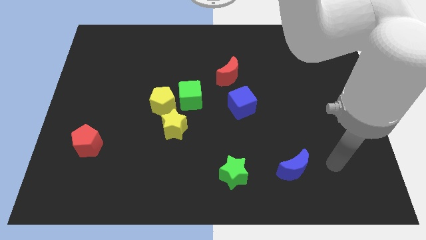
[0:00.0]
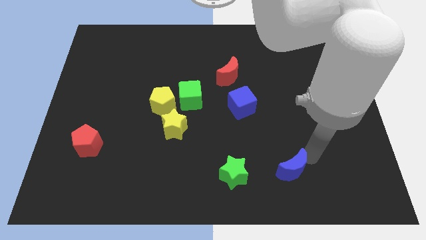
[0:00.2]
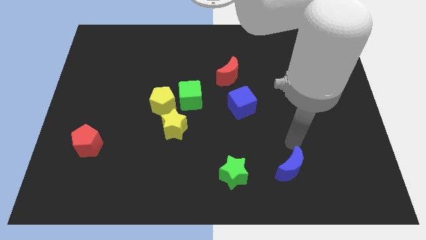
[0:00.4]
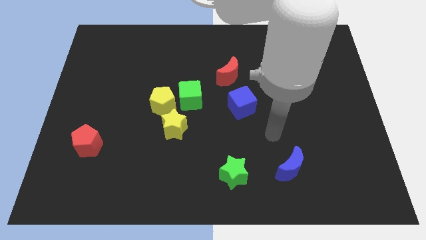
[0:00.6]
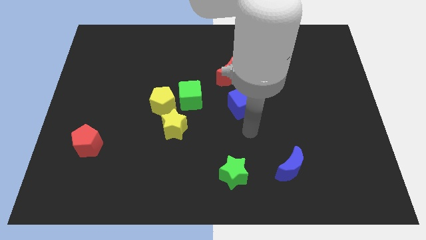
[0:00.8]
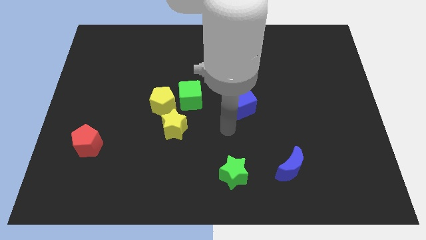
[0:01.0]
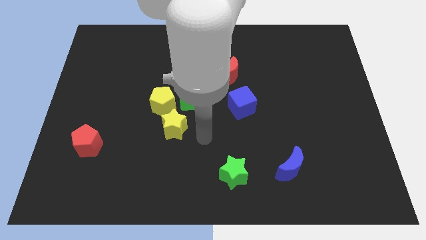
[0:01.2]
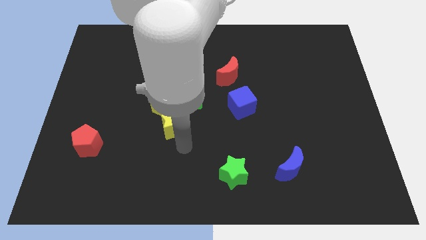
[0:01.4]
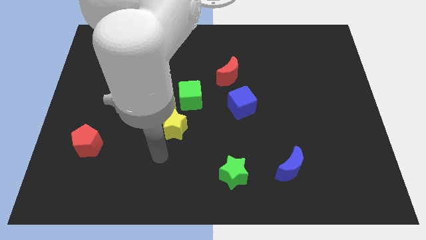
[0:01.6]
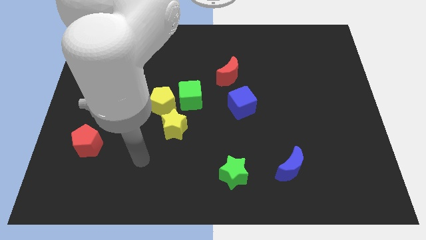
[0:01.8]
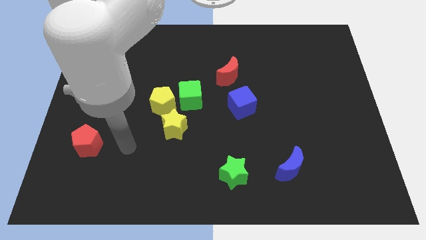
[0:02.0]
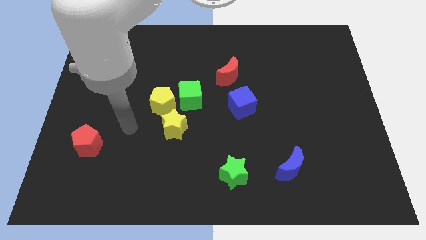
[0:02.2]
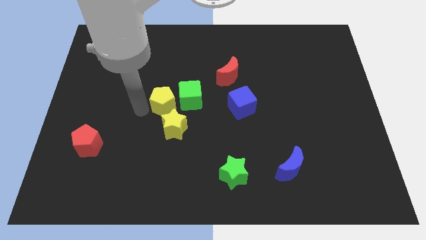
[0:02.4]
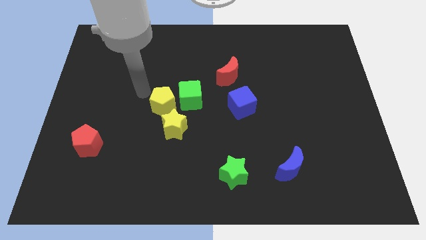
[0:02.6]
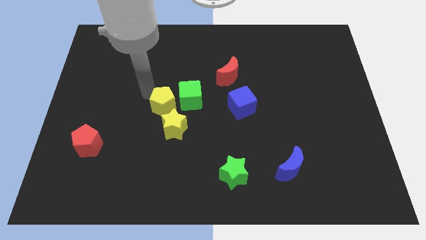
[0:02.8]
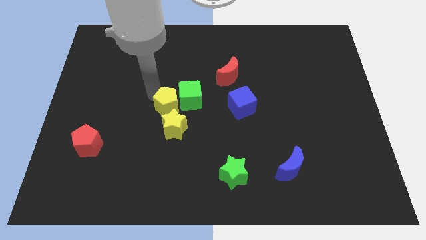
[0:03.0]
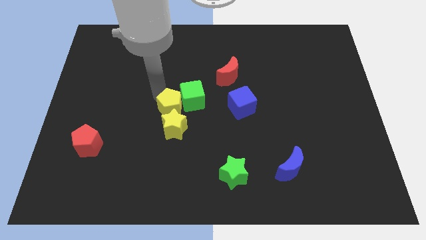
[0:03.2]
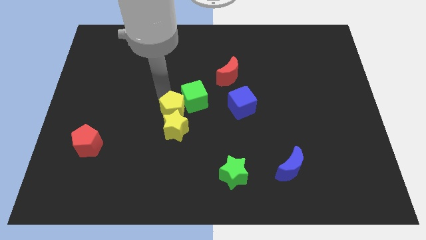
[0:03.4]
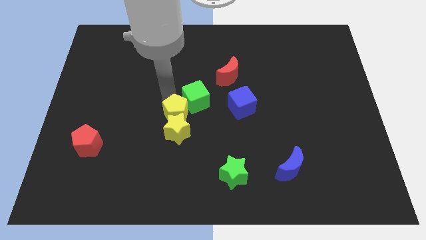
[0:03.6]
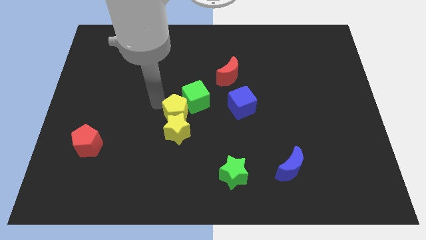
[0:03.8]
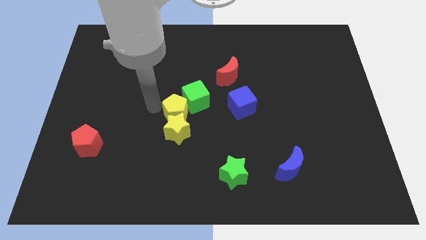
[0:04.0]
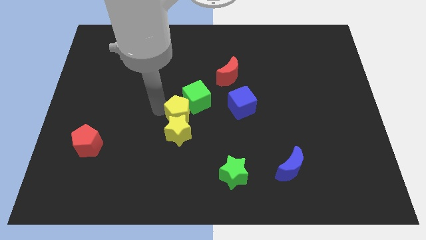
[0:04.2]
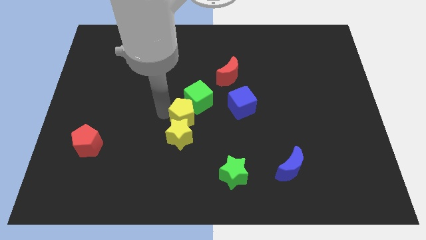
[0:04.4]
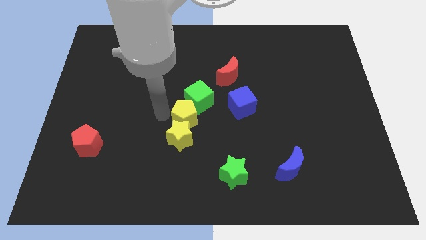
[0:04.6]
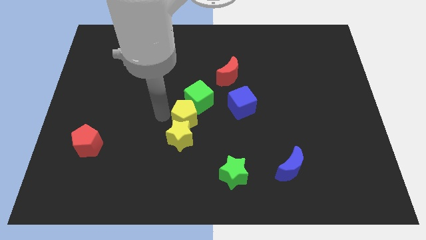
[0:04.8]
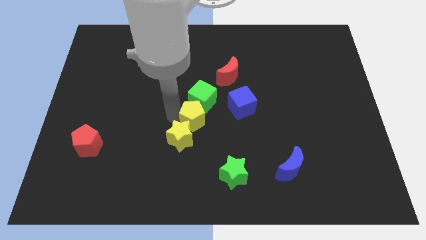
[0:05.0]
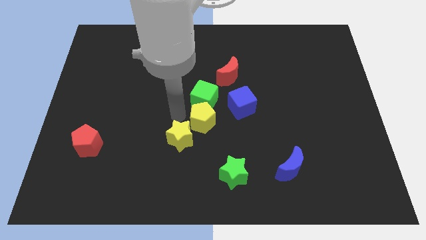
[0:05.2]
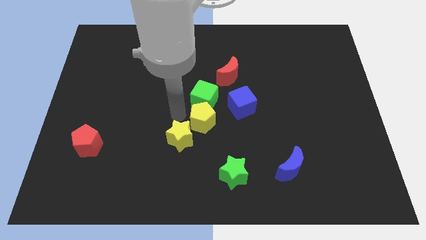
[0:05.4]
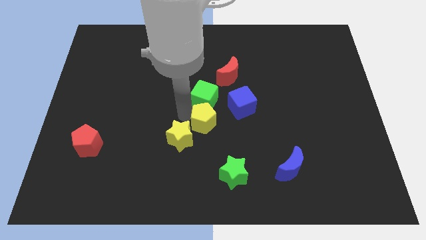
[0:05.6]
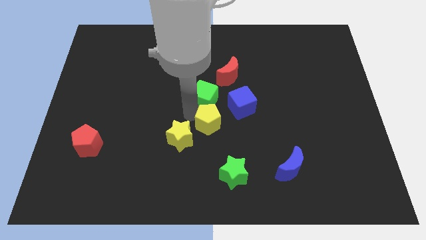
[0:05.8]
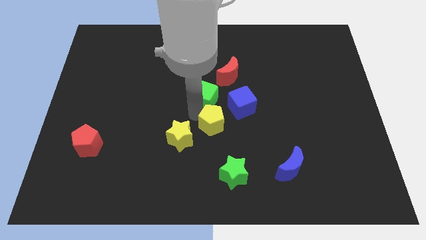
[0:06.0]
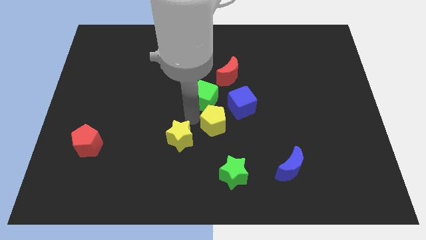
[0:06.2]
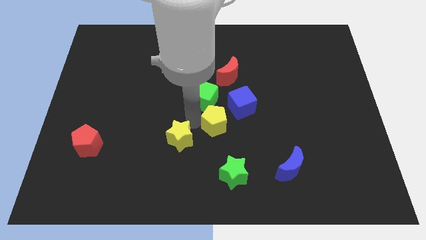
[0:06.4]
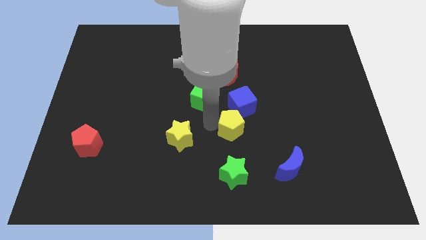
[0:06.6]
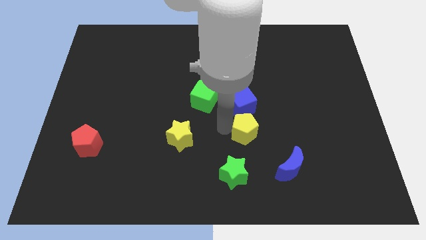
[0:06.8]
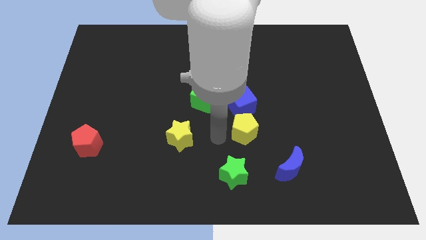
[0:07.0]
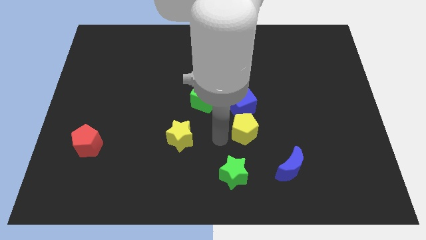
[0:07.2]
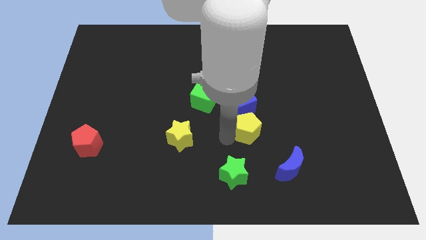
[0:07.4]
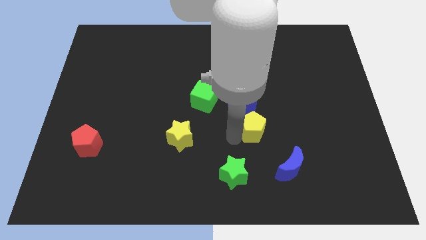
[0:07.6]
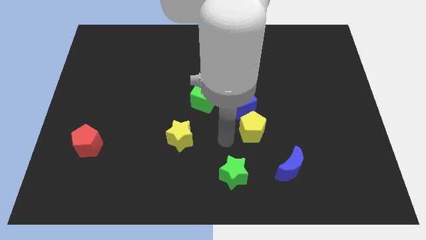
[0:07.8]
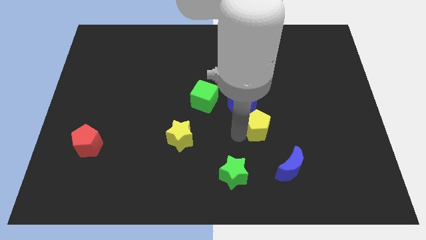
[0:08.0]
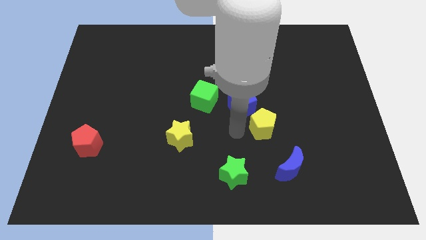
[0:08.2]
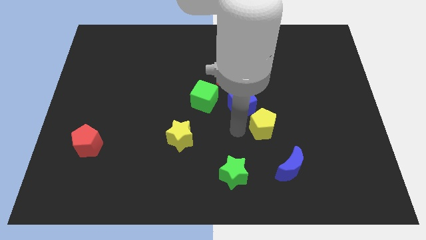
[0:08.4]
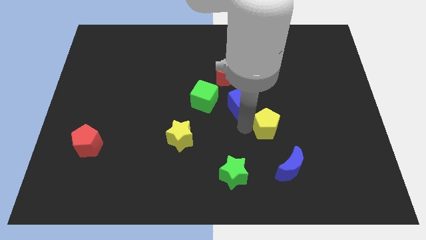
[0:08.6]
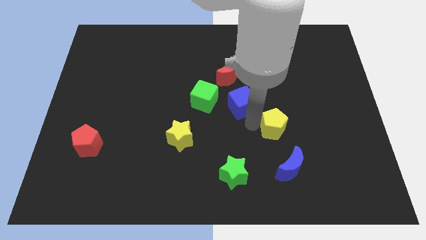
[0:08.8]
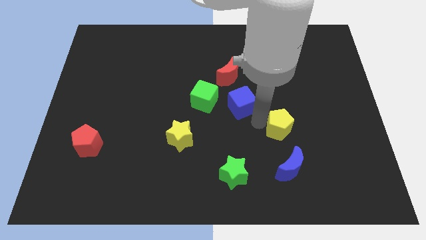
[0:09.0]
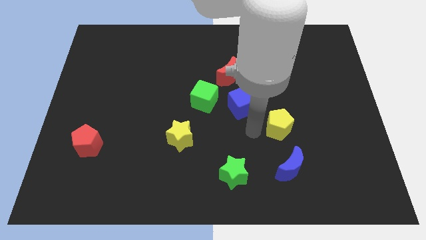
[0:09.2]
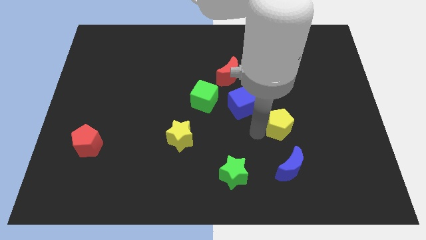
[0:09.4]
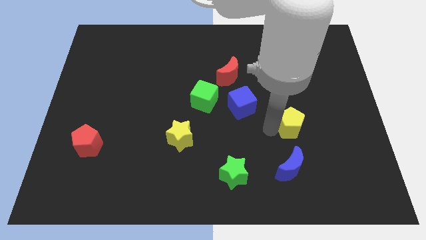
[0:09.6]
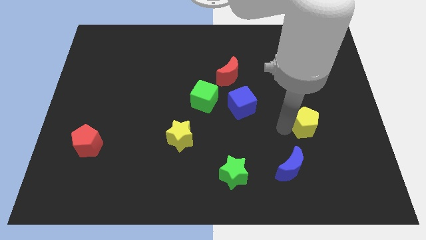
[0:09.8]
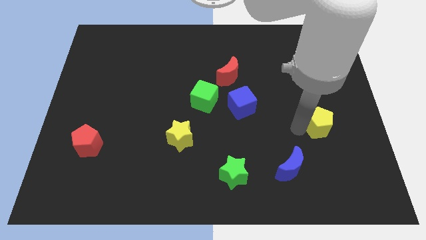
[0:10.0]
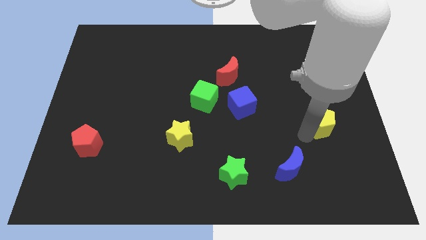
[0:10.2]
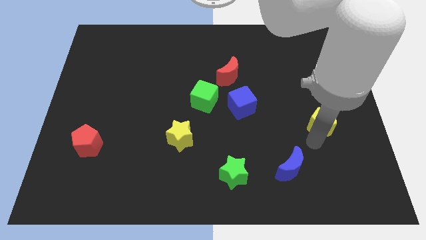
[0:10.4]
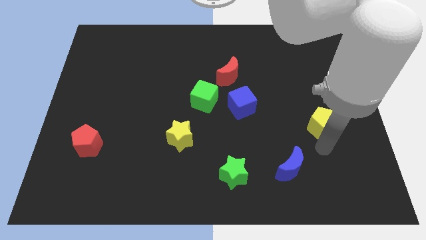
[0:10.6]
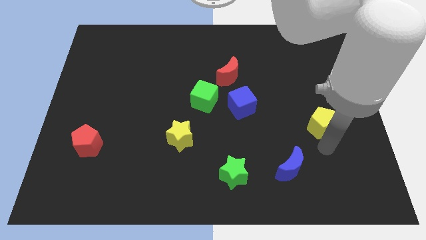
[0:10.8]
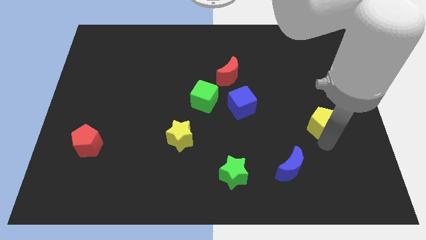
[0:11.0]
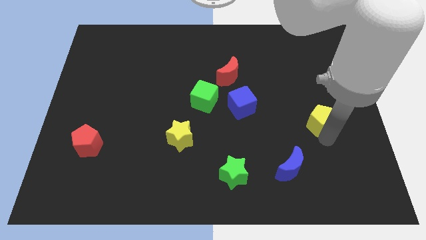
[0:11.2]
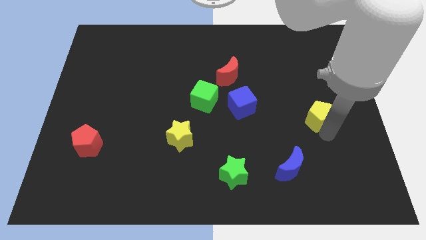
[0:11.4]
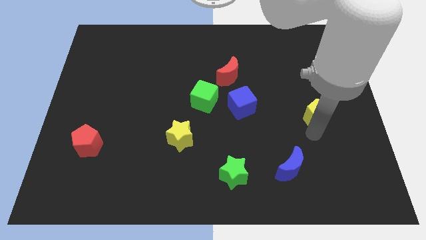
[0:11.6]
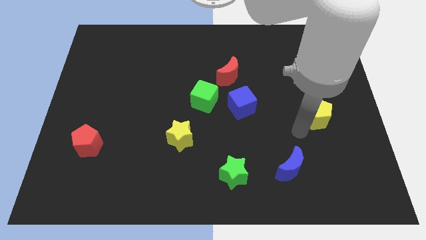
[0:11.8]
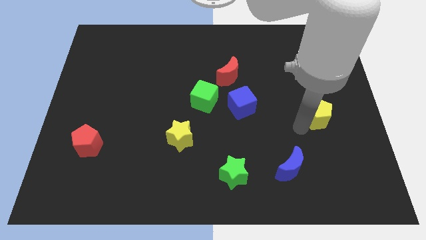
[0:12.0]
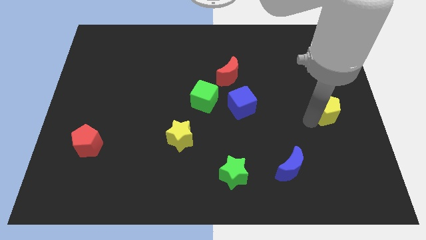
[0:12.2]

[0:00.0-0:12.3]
move the yellow pentagon to the center right
